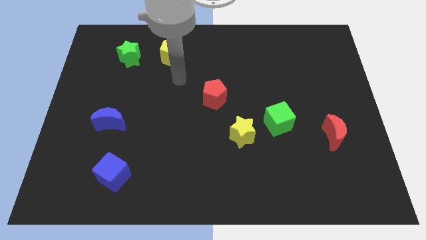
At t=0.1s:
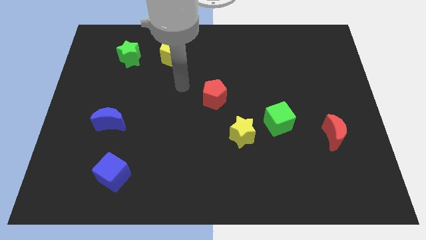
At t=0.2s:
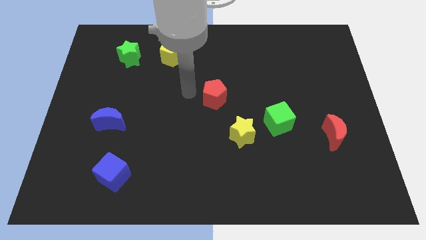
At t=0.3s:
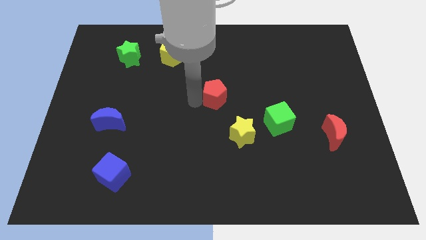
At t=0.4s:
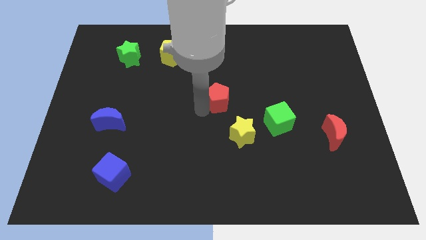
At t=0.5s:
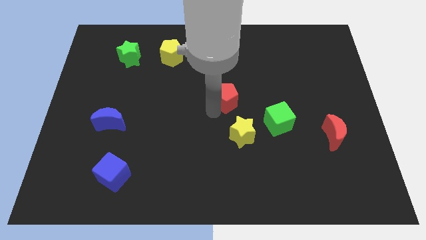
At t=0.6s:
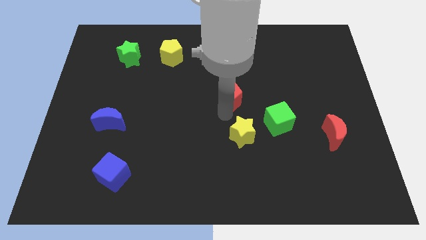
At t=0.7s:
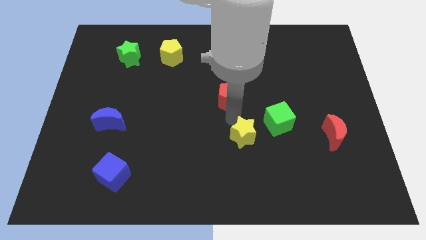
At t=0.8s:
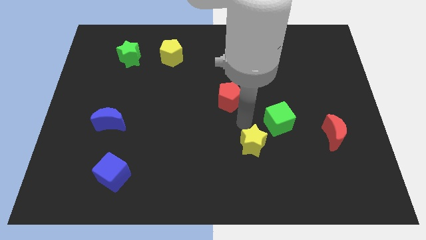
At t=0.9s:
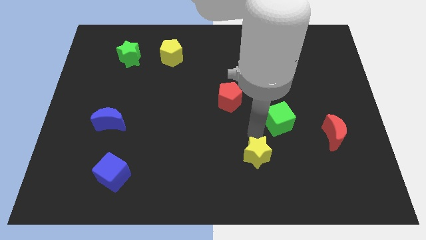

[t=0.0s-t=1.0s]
separate the green cube from the yellow star

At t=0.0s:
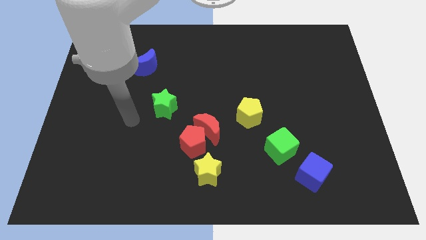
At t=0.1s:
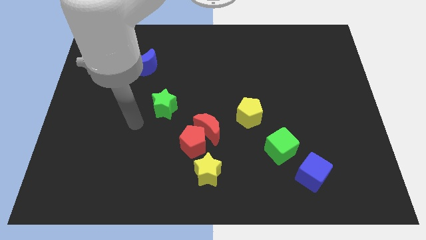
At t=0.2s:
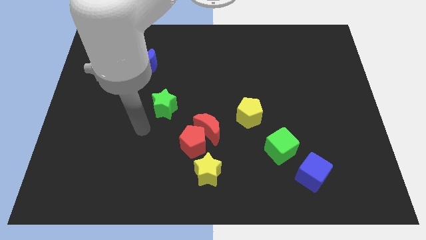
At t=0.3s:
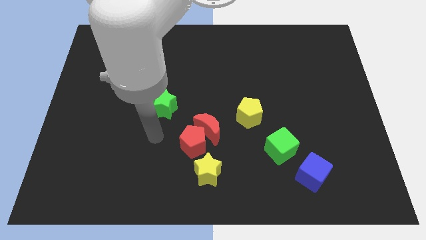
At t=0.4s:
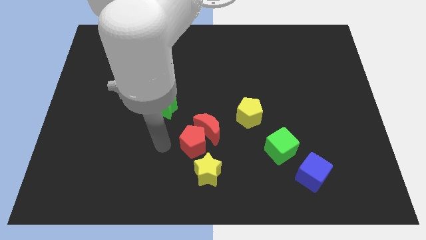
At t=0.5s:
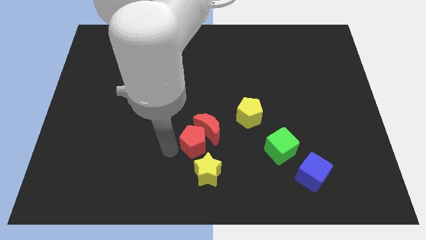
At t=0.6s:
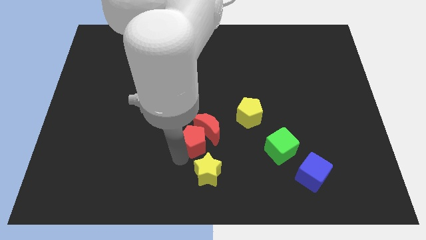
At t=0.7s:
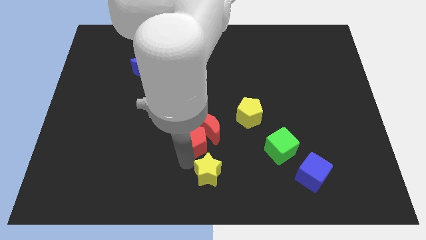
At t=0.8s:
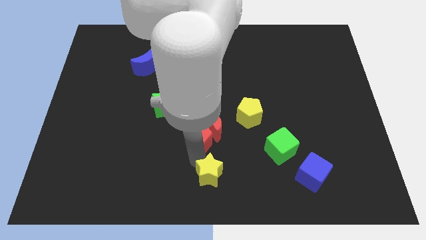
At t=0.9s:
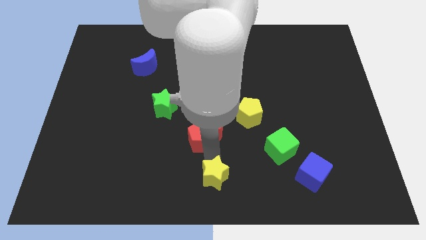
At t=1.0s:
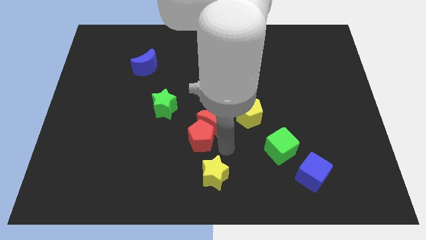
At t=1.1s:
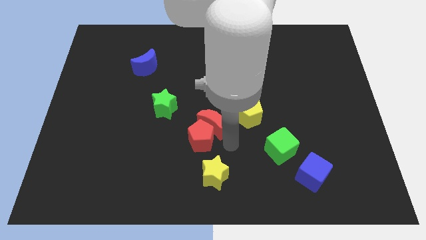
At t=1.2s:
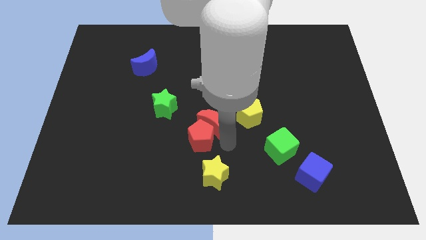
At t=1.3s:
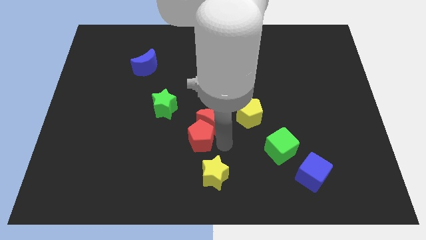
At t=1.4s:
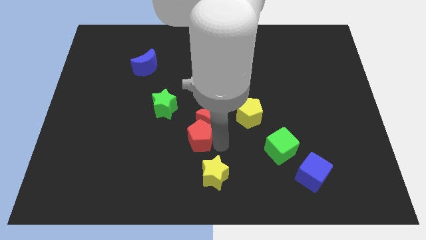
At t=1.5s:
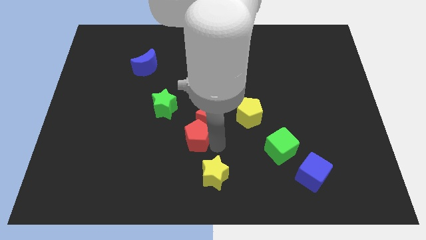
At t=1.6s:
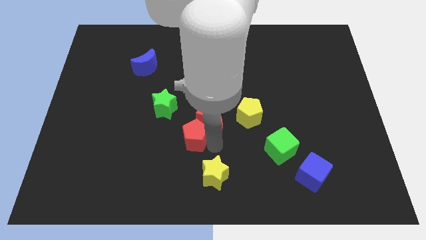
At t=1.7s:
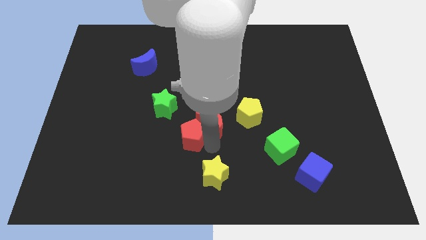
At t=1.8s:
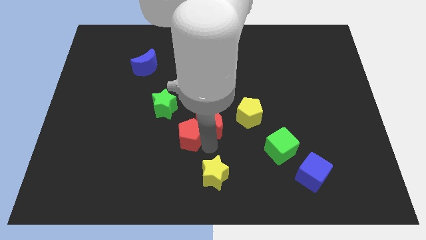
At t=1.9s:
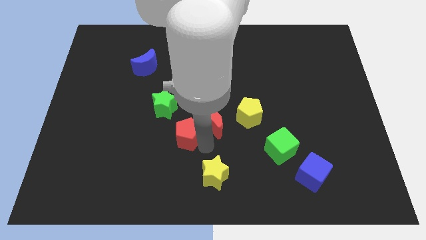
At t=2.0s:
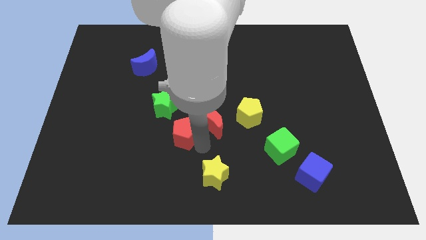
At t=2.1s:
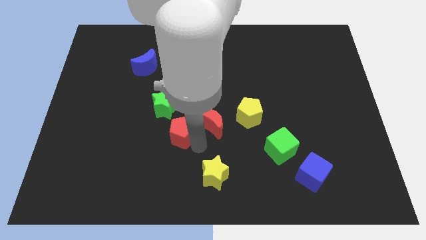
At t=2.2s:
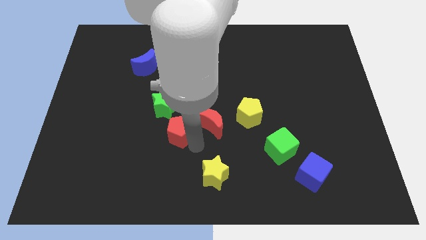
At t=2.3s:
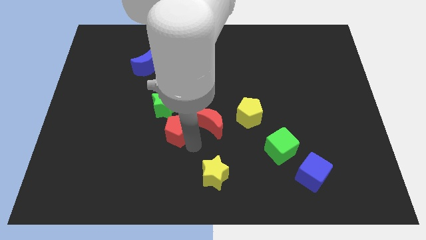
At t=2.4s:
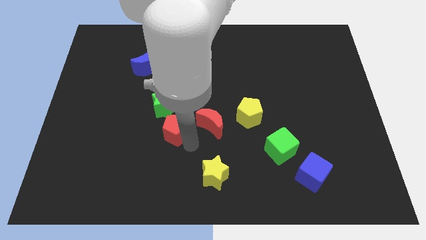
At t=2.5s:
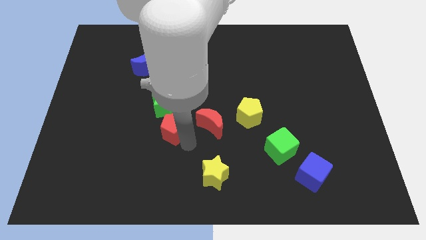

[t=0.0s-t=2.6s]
move the red pentagon away from the red moon and yellow star

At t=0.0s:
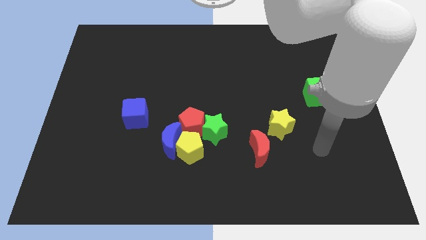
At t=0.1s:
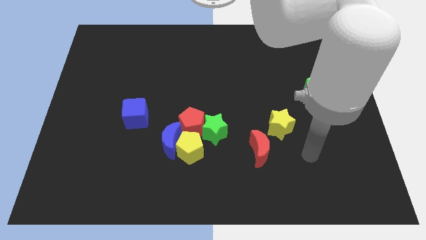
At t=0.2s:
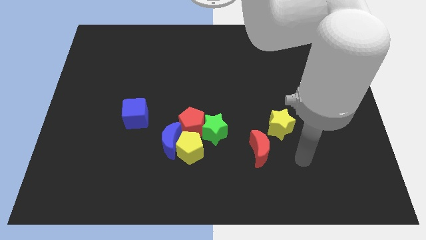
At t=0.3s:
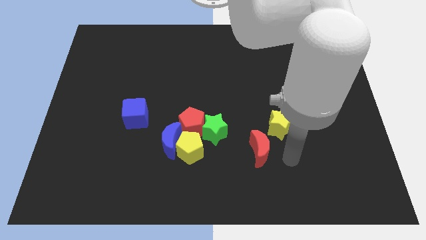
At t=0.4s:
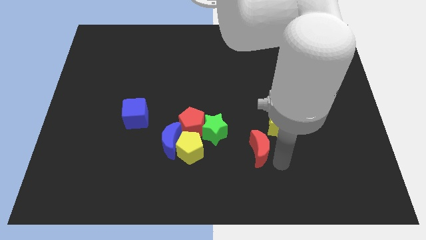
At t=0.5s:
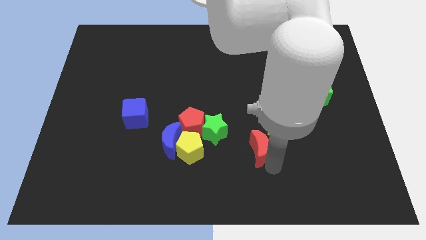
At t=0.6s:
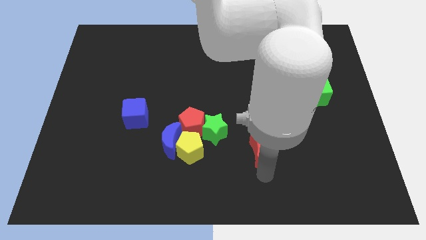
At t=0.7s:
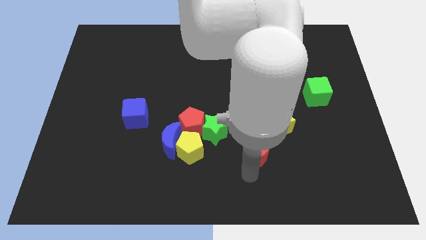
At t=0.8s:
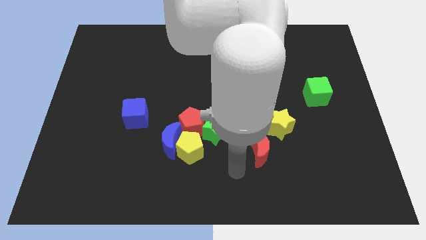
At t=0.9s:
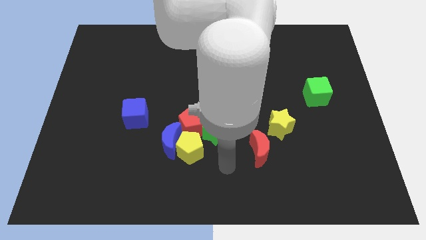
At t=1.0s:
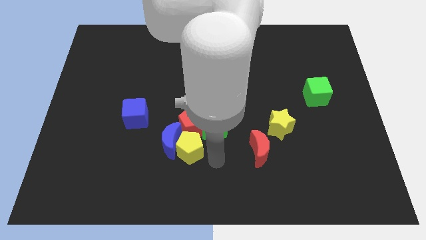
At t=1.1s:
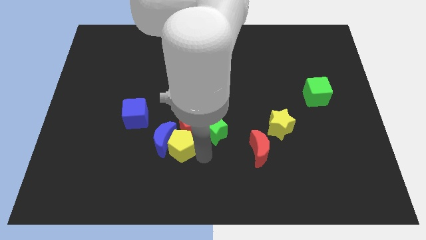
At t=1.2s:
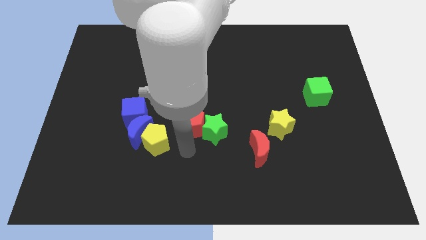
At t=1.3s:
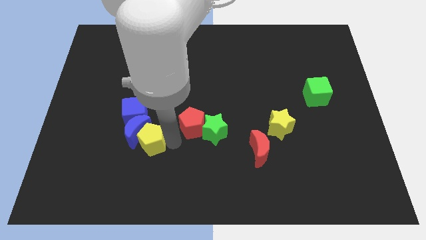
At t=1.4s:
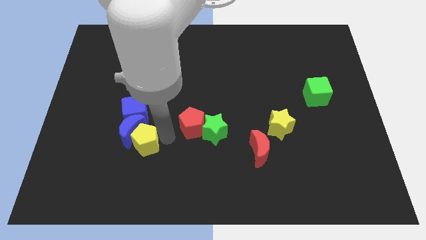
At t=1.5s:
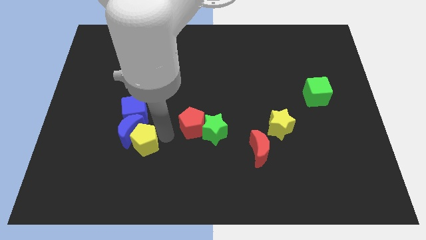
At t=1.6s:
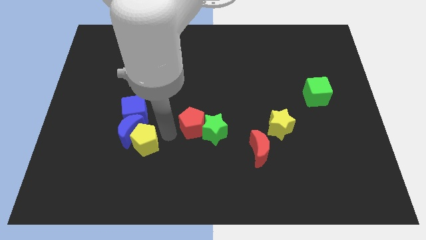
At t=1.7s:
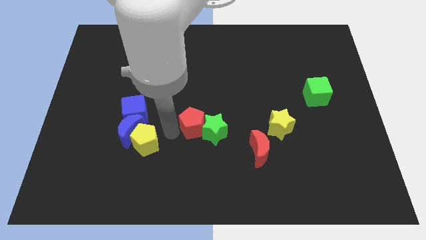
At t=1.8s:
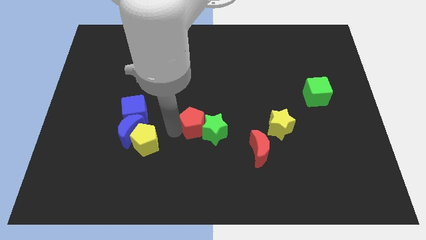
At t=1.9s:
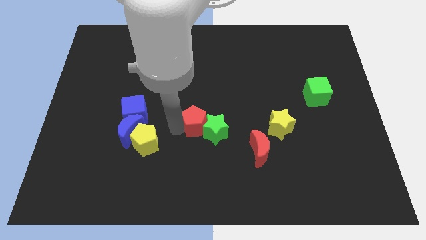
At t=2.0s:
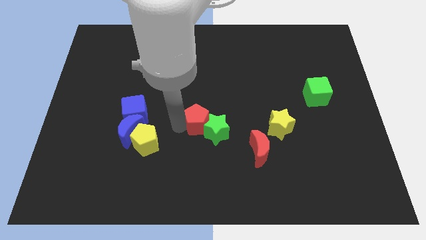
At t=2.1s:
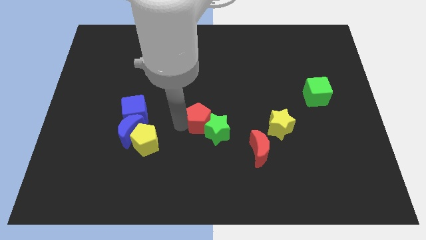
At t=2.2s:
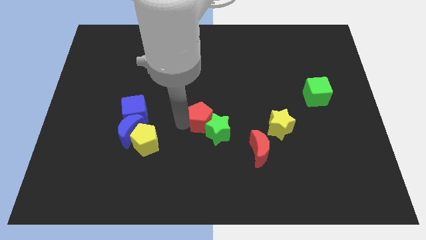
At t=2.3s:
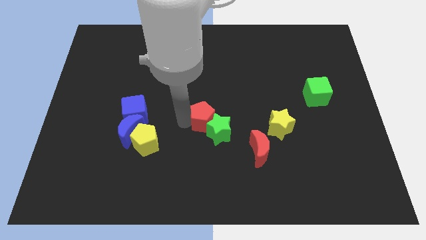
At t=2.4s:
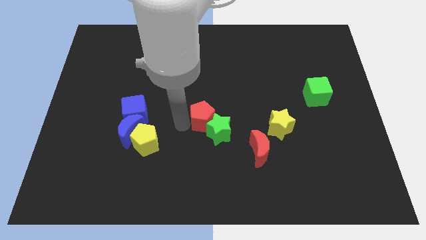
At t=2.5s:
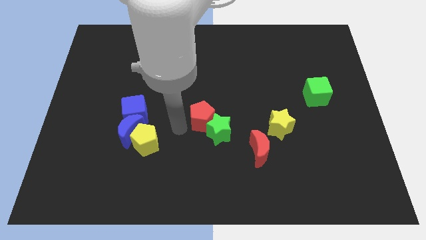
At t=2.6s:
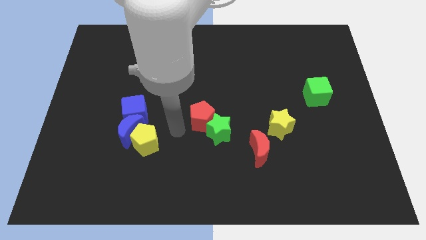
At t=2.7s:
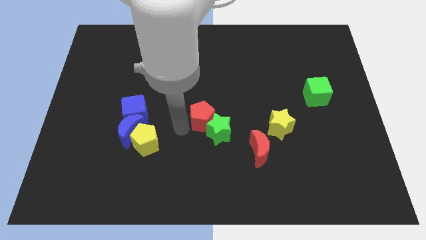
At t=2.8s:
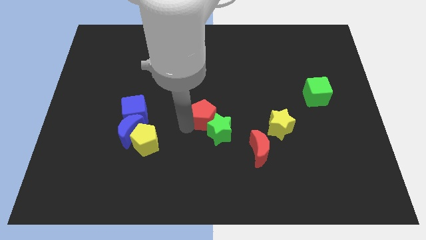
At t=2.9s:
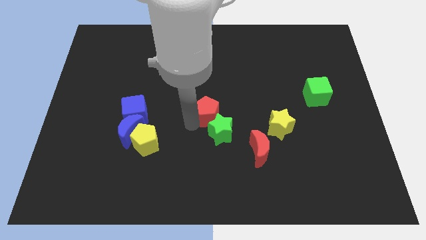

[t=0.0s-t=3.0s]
separate the red pentagon from the green star, blue moon, and yellow pentagon

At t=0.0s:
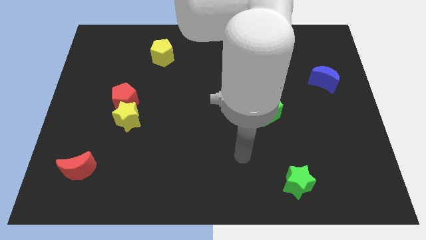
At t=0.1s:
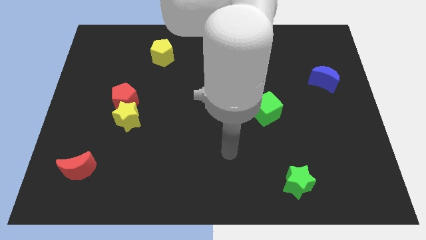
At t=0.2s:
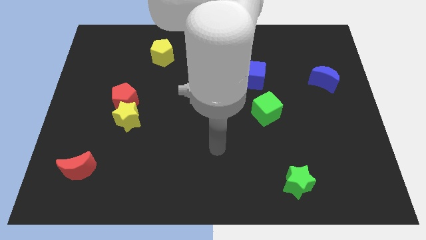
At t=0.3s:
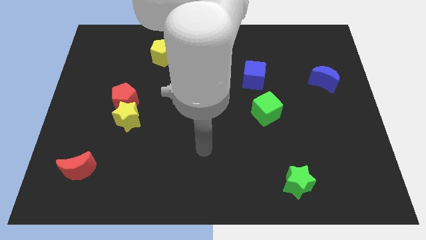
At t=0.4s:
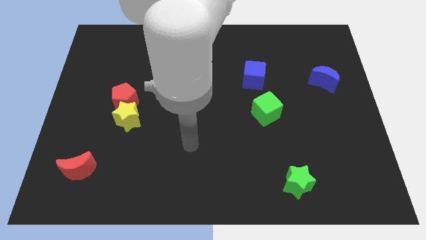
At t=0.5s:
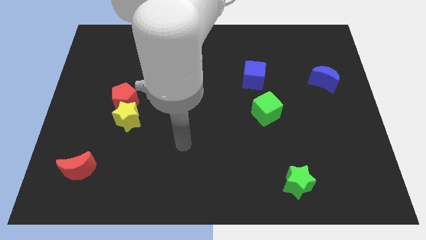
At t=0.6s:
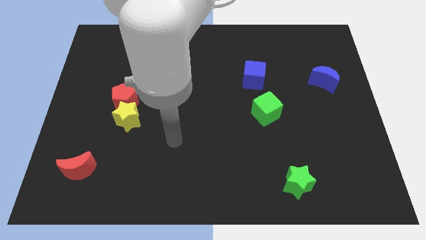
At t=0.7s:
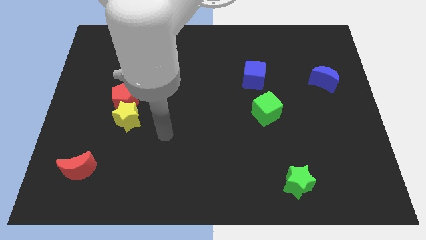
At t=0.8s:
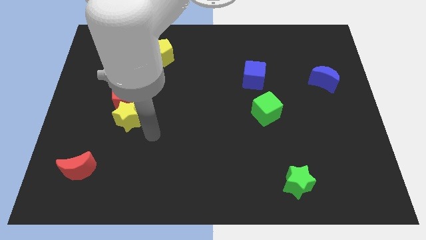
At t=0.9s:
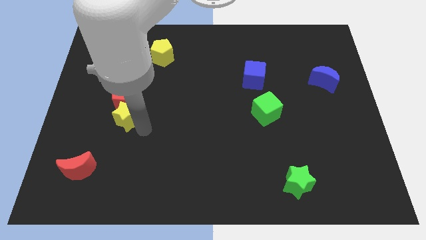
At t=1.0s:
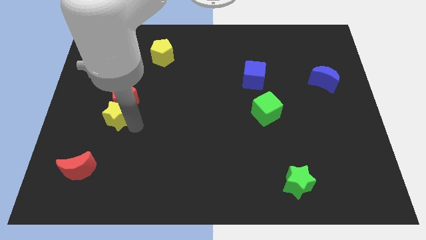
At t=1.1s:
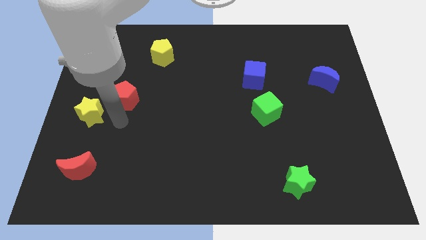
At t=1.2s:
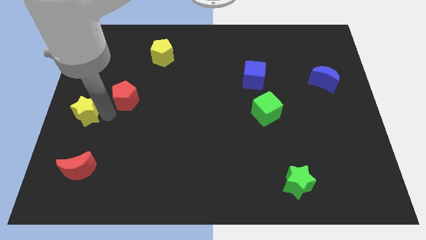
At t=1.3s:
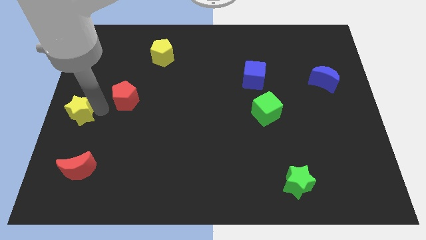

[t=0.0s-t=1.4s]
separate the red pentagon from the yellow star

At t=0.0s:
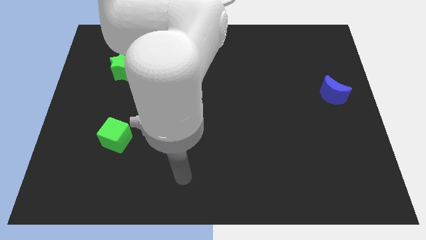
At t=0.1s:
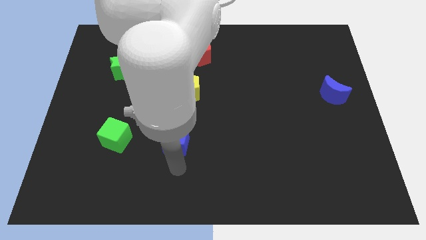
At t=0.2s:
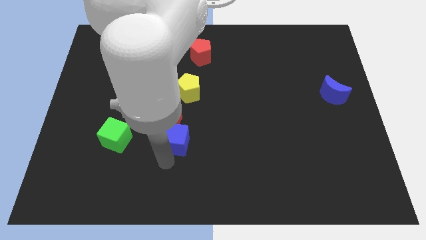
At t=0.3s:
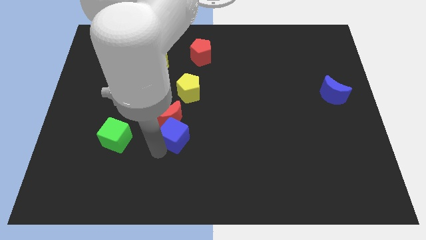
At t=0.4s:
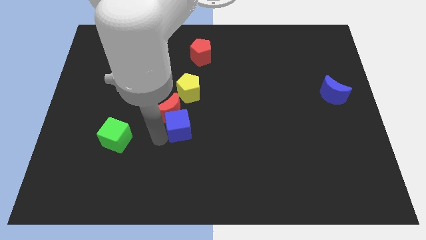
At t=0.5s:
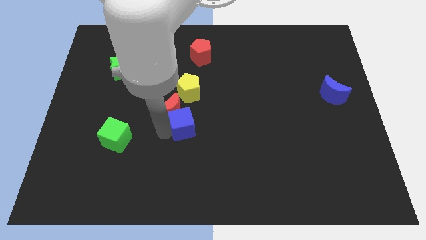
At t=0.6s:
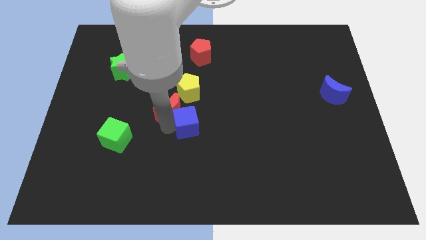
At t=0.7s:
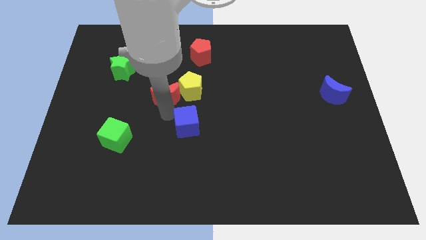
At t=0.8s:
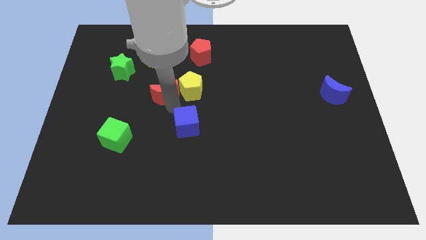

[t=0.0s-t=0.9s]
move the blue cube away from the red moon

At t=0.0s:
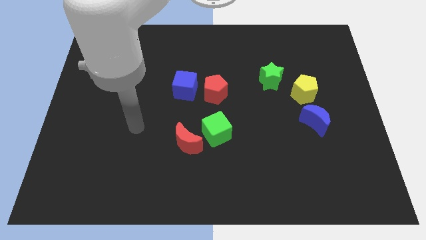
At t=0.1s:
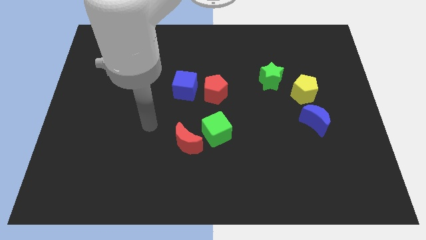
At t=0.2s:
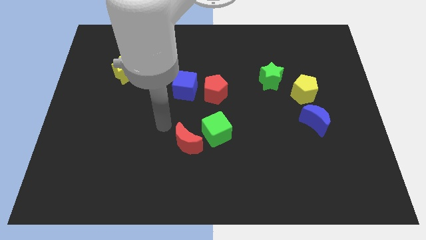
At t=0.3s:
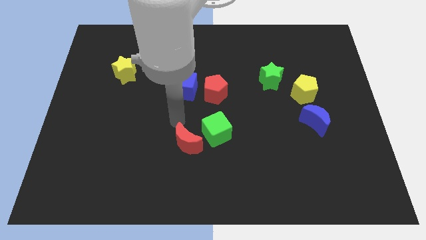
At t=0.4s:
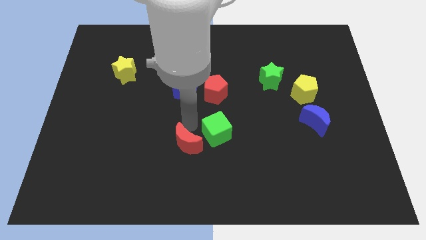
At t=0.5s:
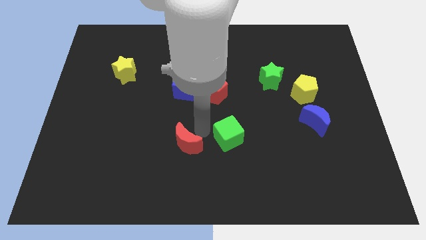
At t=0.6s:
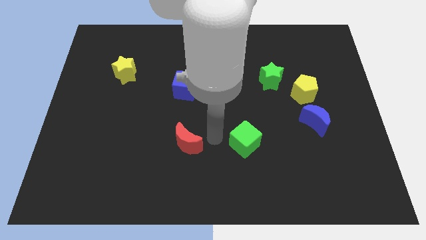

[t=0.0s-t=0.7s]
separate the red moon from the green cube
